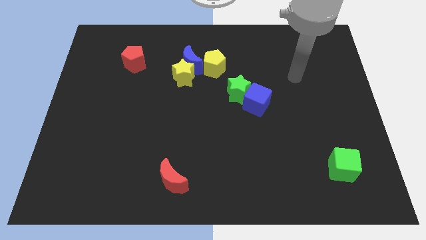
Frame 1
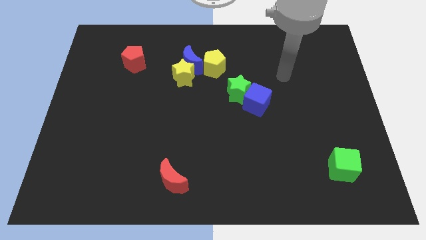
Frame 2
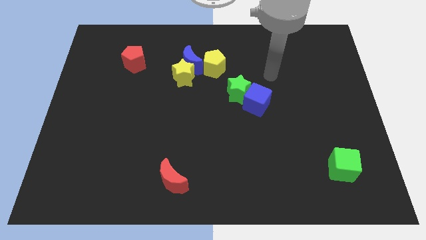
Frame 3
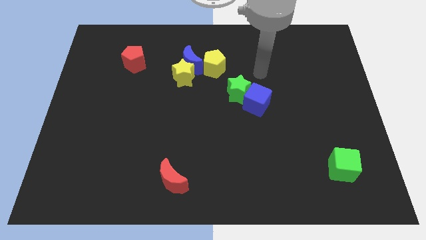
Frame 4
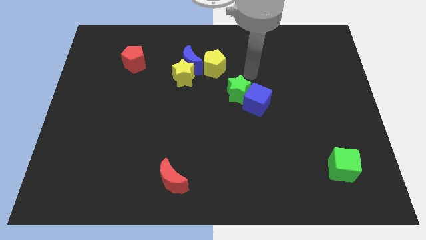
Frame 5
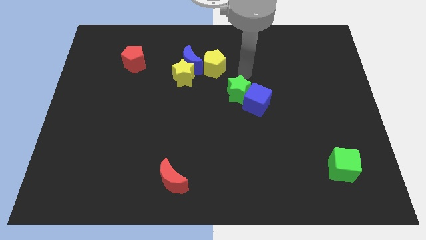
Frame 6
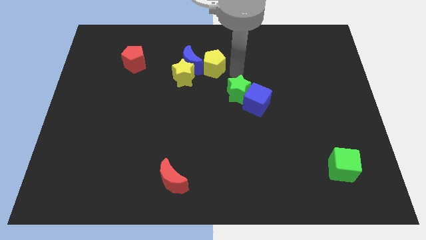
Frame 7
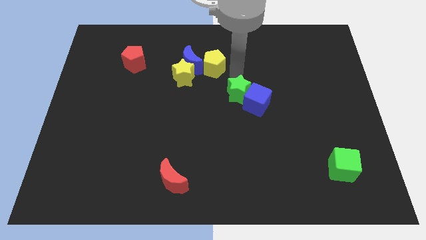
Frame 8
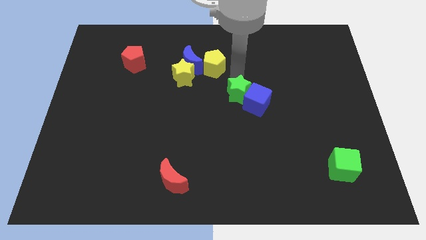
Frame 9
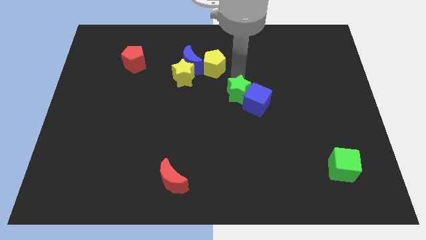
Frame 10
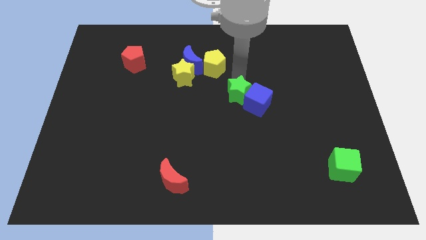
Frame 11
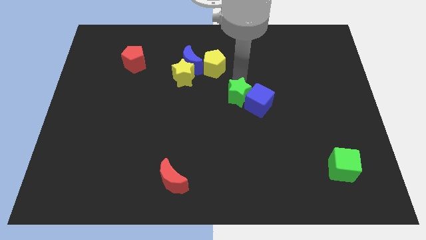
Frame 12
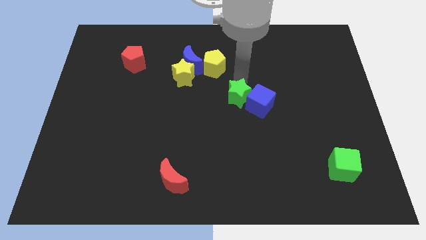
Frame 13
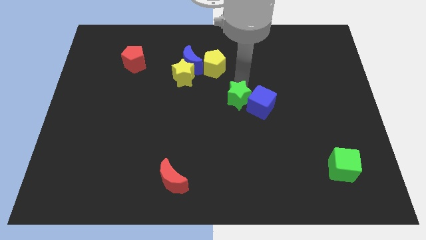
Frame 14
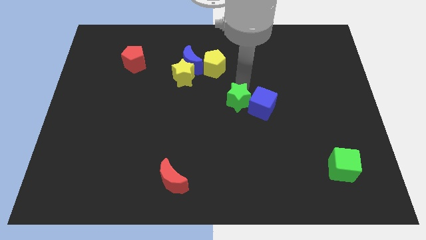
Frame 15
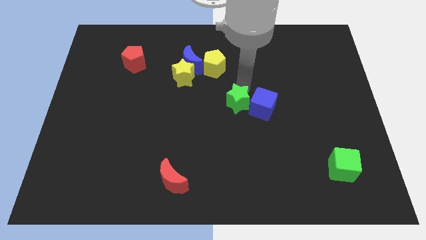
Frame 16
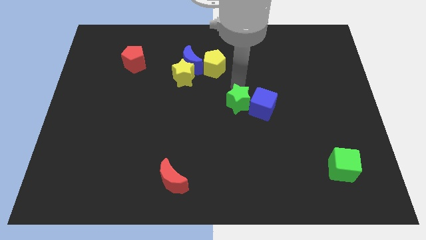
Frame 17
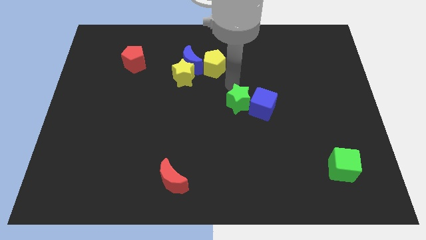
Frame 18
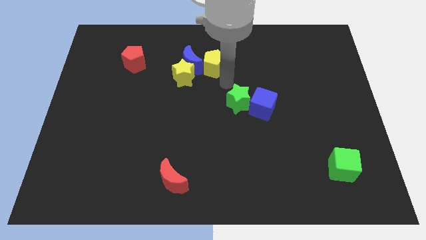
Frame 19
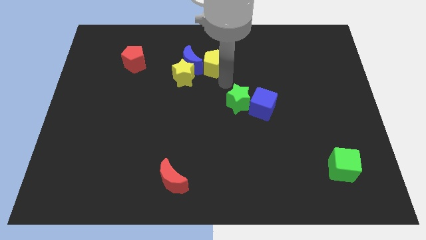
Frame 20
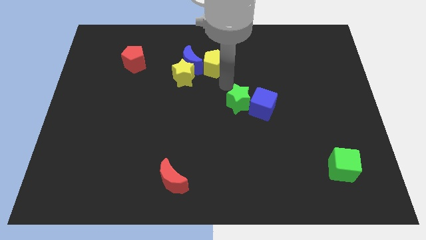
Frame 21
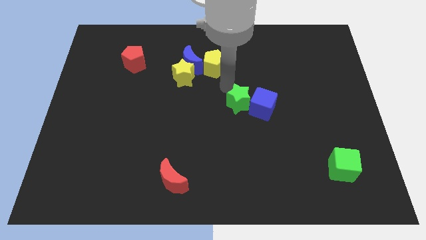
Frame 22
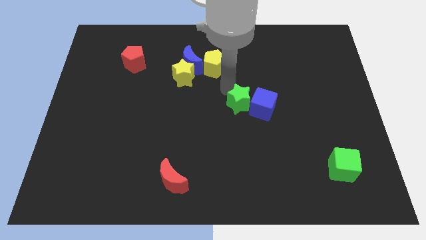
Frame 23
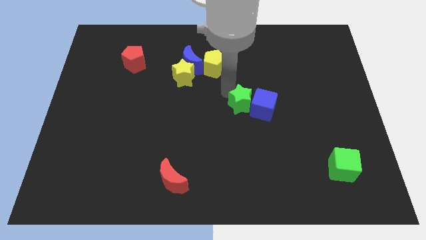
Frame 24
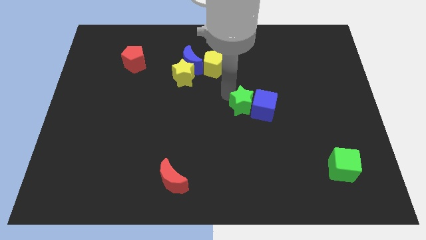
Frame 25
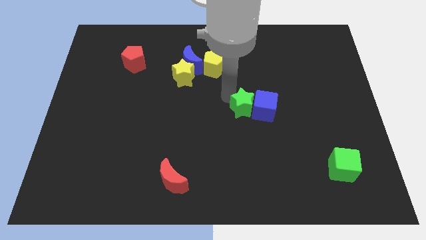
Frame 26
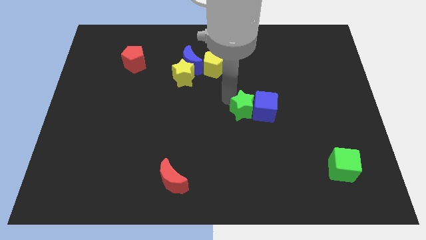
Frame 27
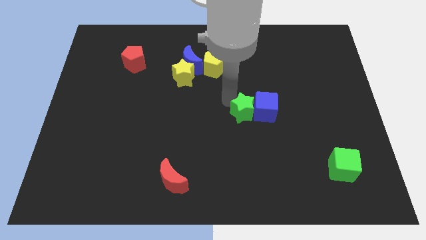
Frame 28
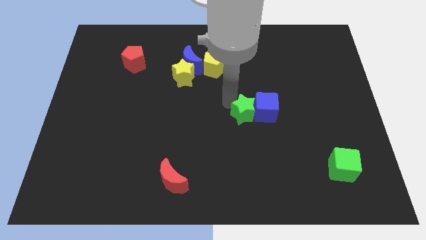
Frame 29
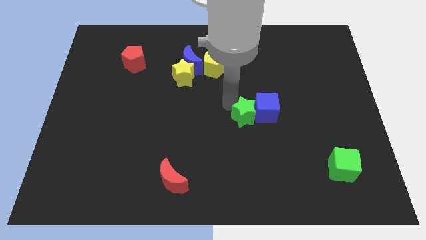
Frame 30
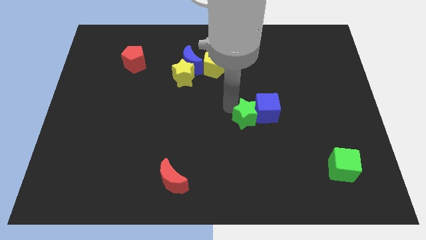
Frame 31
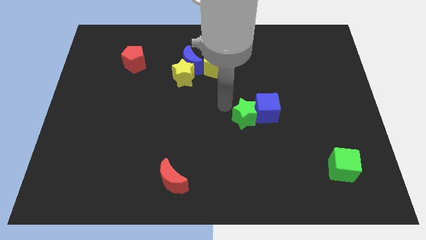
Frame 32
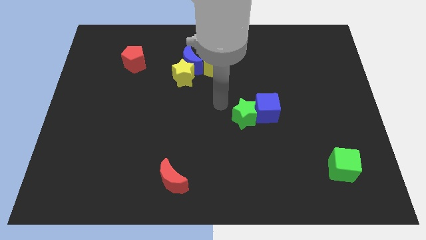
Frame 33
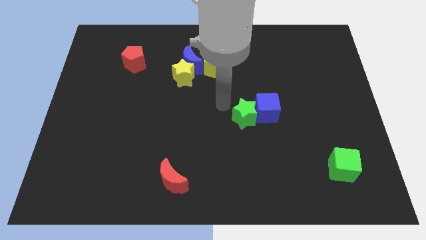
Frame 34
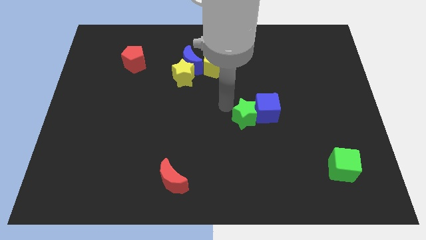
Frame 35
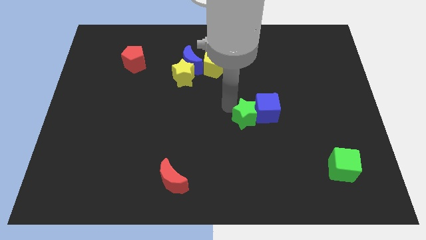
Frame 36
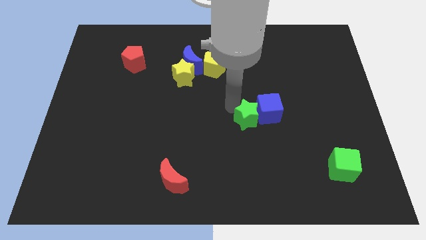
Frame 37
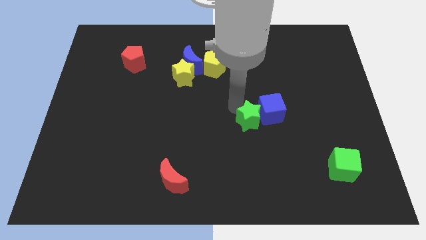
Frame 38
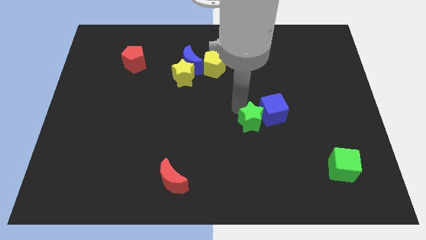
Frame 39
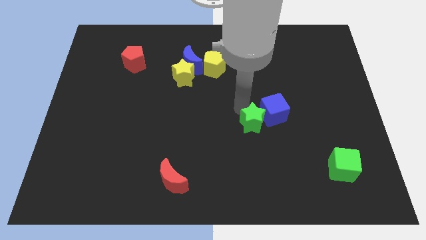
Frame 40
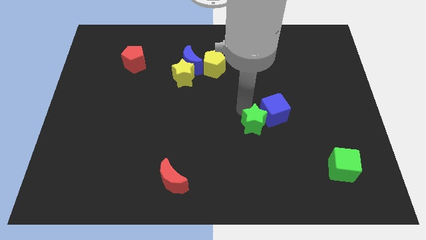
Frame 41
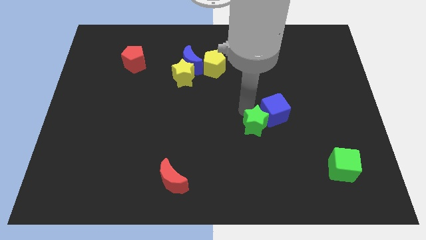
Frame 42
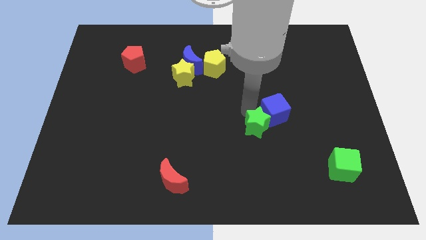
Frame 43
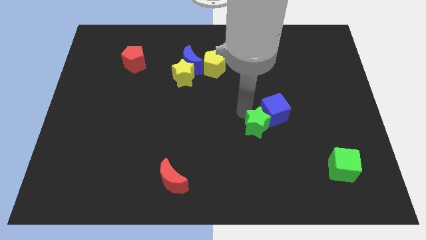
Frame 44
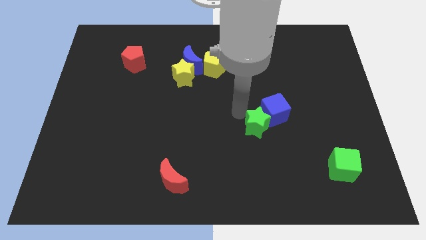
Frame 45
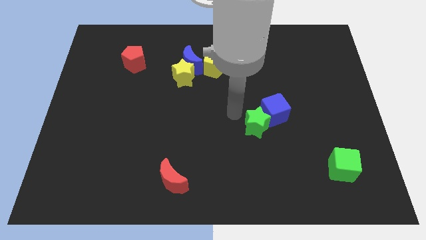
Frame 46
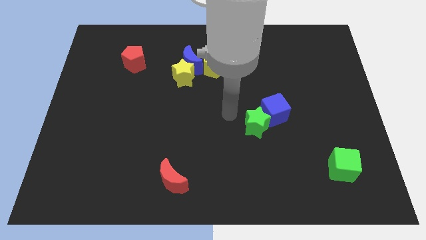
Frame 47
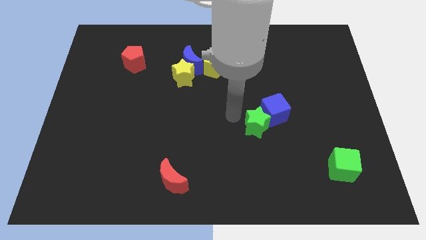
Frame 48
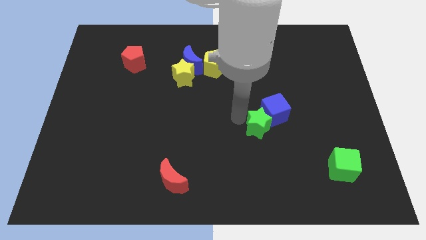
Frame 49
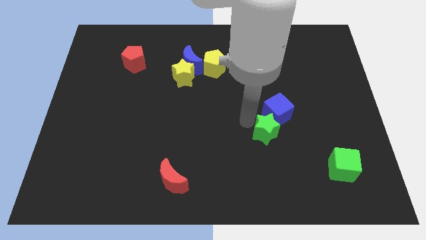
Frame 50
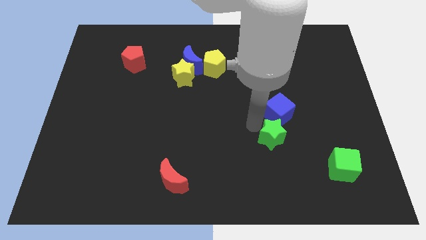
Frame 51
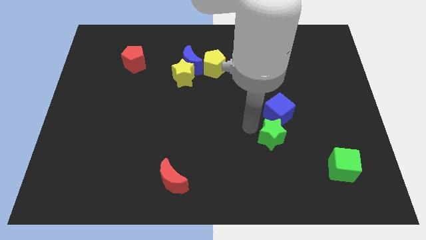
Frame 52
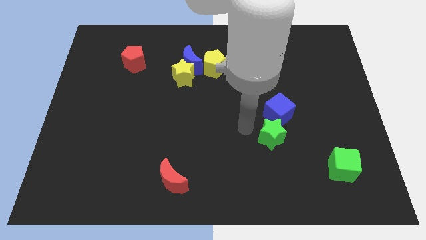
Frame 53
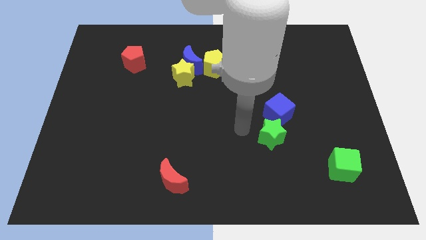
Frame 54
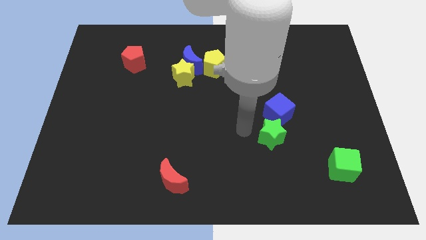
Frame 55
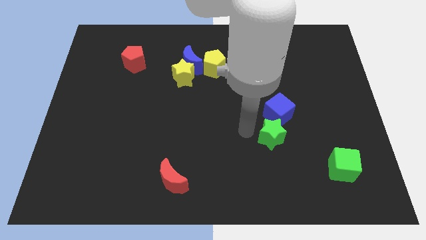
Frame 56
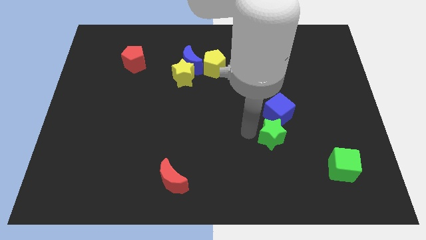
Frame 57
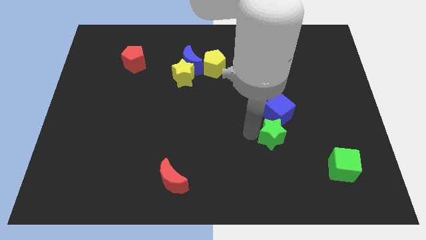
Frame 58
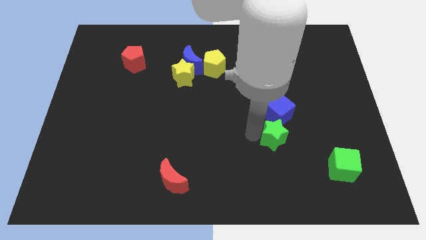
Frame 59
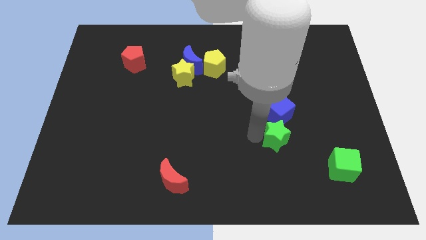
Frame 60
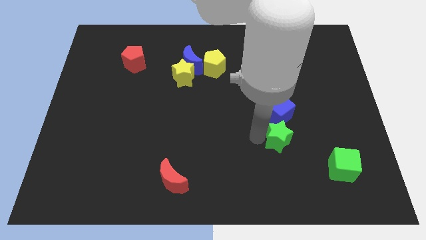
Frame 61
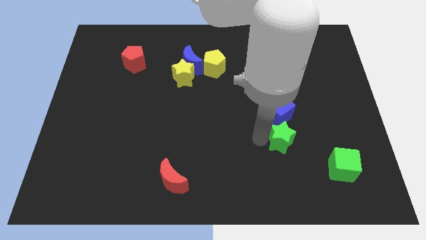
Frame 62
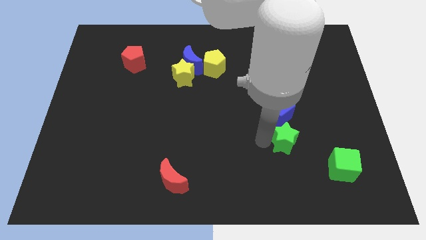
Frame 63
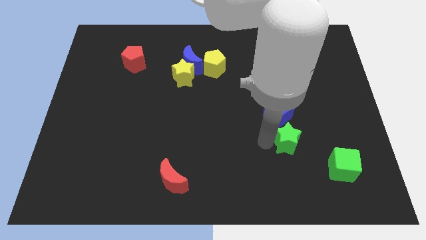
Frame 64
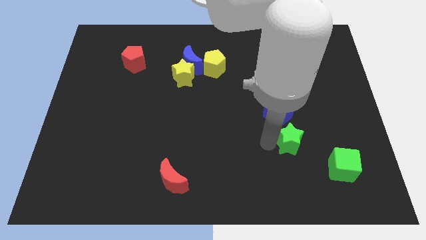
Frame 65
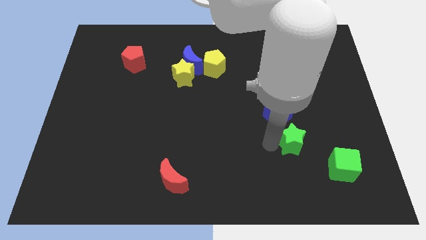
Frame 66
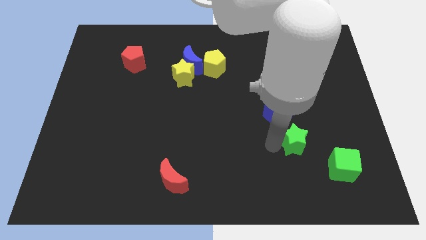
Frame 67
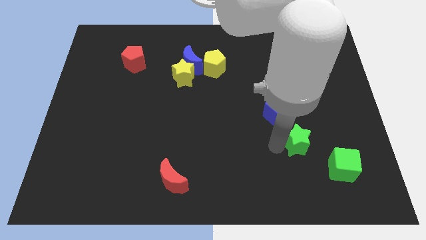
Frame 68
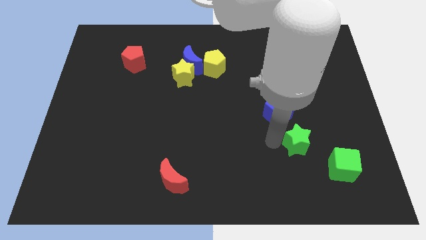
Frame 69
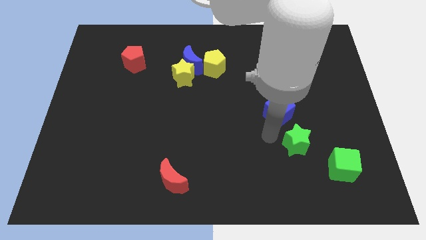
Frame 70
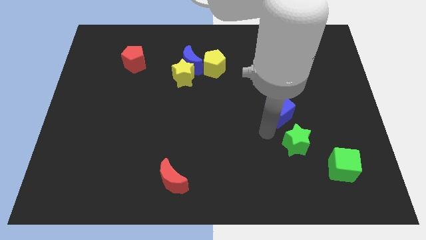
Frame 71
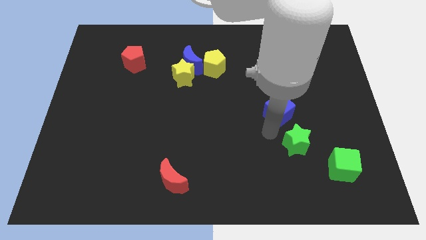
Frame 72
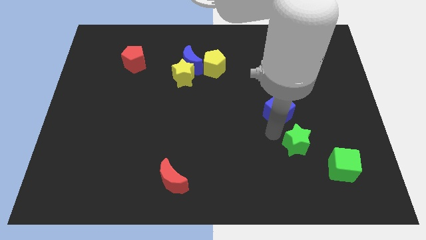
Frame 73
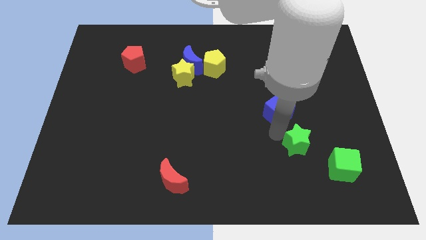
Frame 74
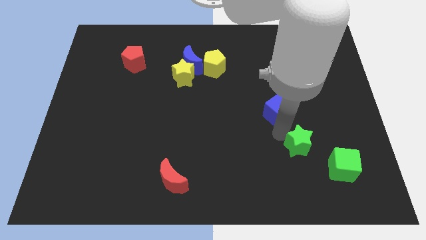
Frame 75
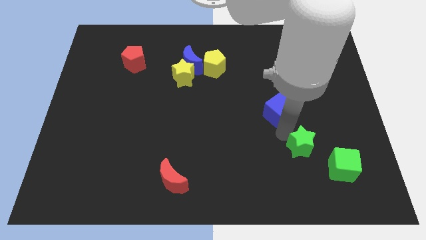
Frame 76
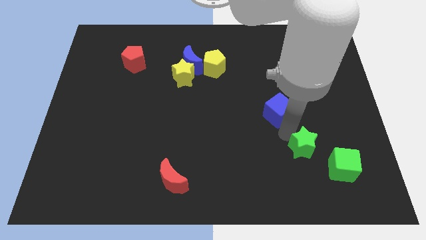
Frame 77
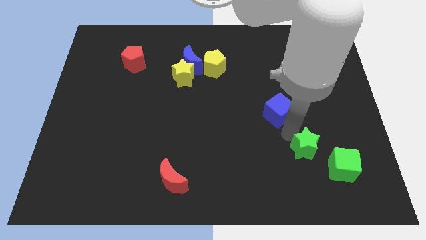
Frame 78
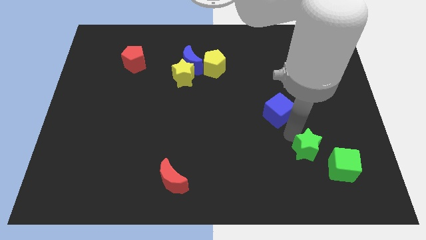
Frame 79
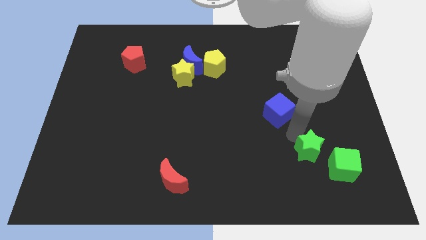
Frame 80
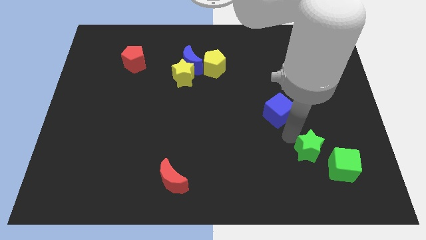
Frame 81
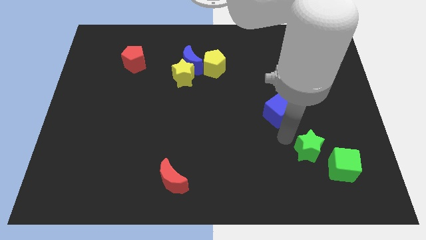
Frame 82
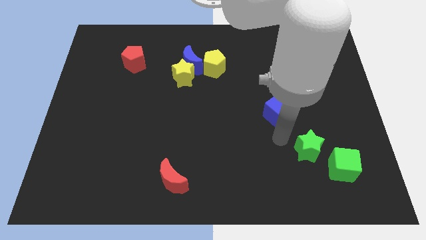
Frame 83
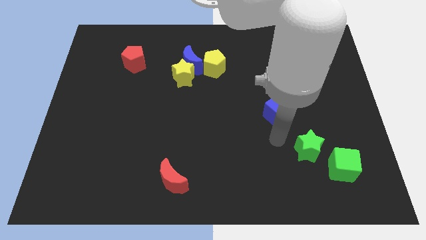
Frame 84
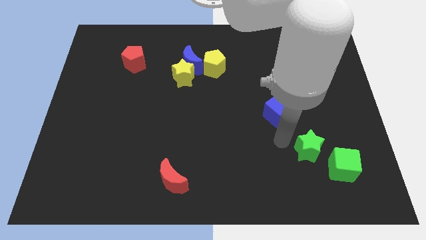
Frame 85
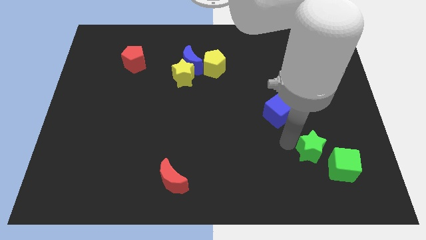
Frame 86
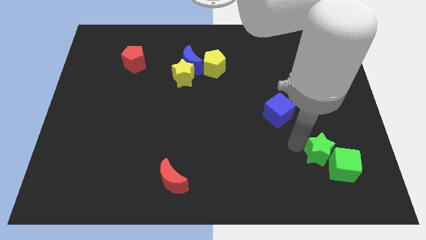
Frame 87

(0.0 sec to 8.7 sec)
move the green star close to the green cube
